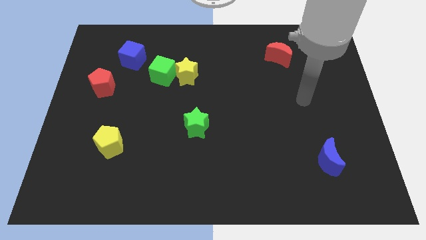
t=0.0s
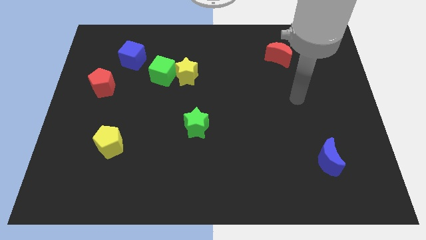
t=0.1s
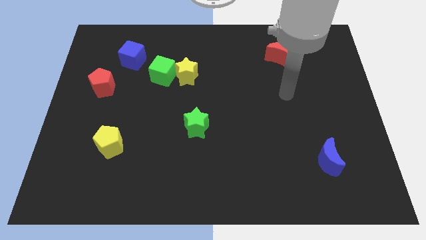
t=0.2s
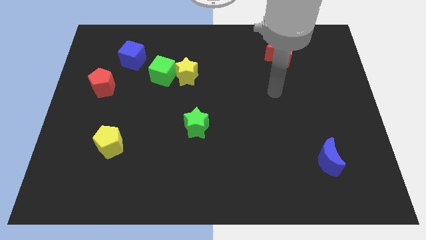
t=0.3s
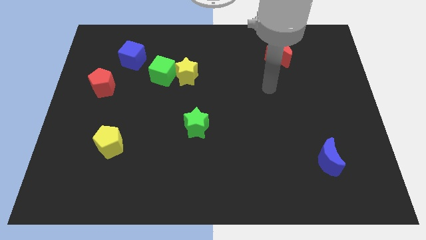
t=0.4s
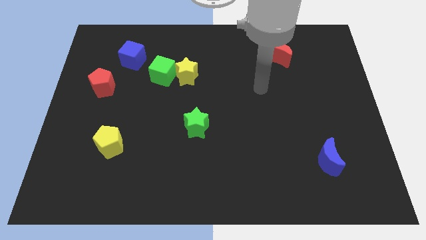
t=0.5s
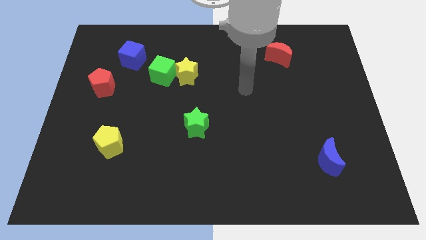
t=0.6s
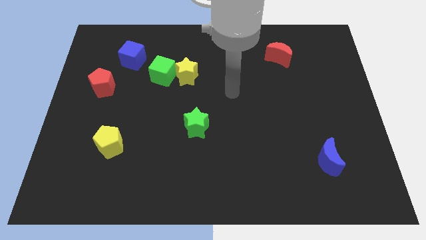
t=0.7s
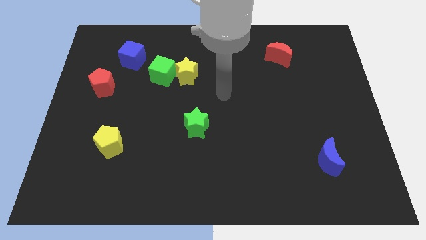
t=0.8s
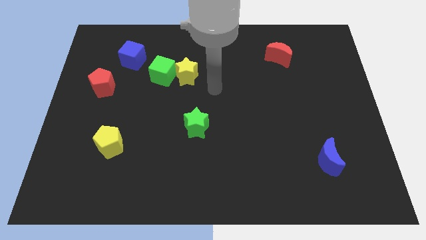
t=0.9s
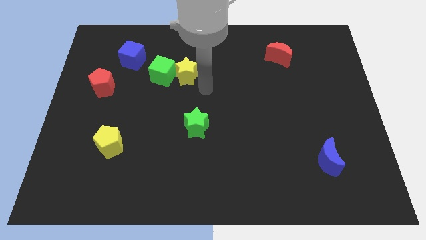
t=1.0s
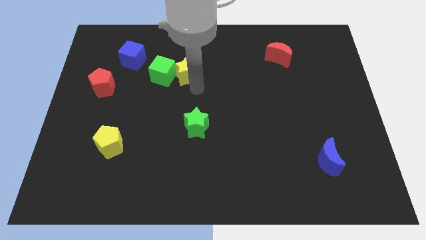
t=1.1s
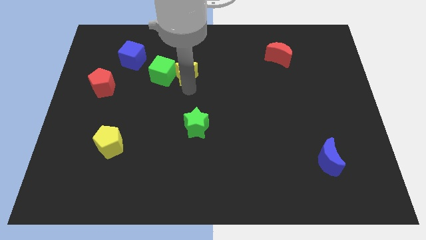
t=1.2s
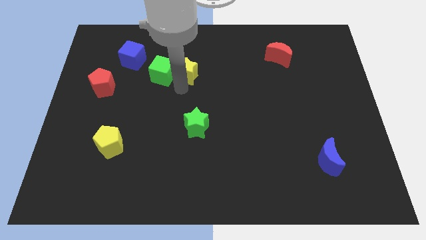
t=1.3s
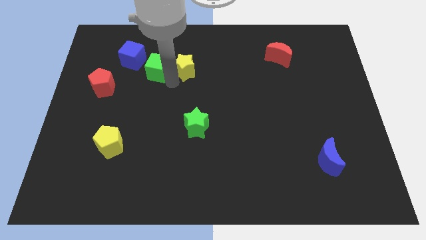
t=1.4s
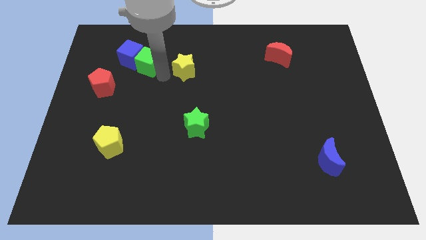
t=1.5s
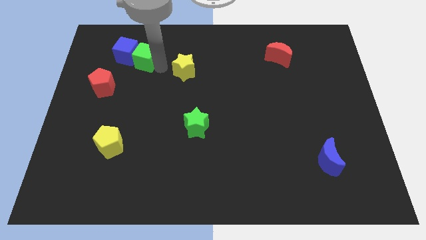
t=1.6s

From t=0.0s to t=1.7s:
separate the yellow star from the green cube

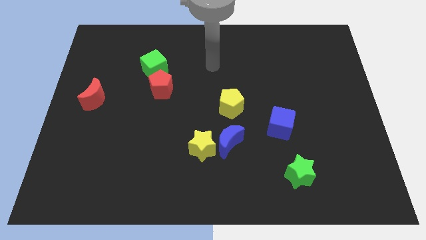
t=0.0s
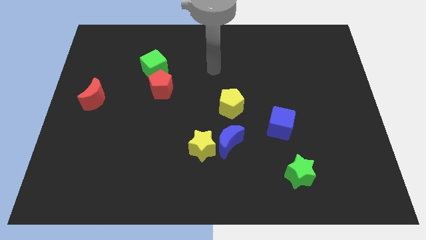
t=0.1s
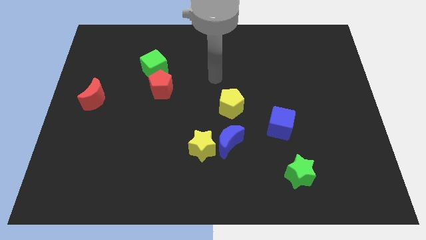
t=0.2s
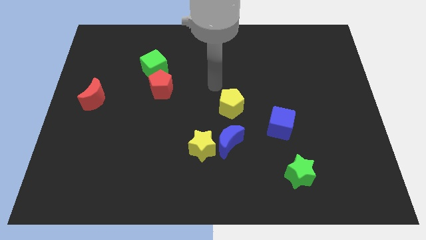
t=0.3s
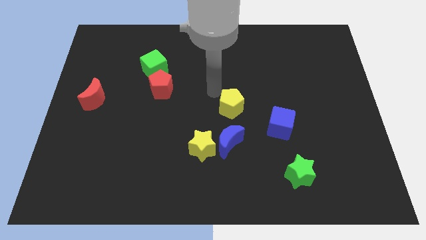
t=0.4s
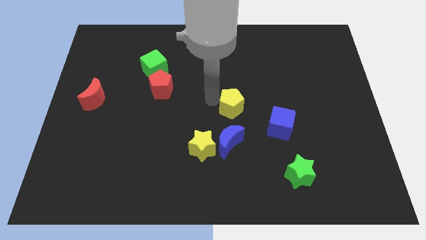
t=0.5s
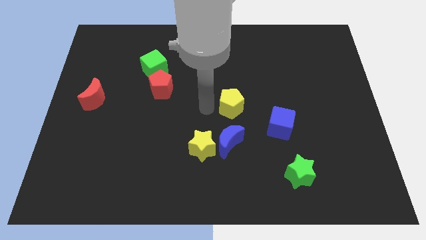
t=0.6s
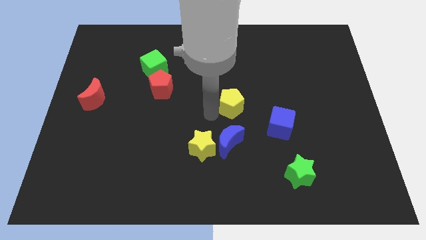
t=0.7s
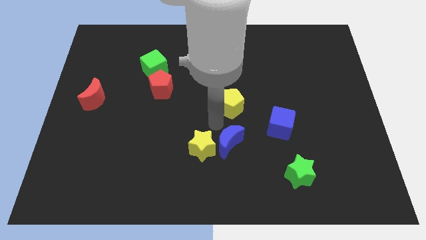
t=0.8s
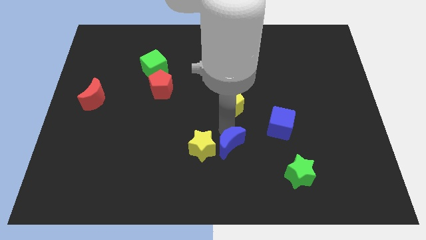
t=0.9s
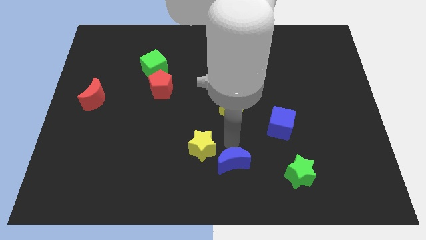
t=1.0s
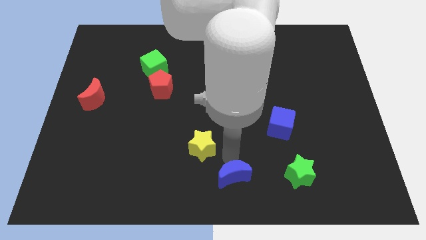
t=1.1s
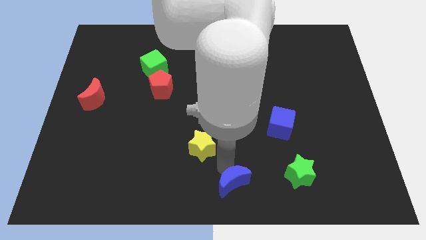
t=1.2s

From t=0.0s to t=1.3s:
move the yellow star away from the blue moon

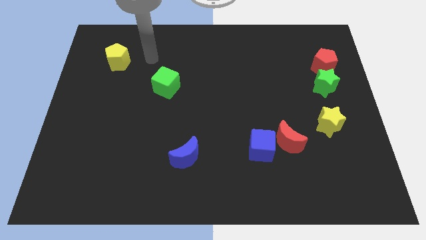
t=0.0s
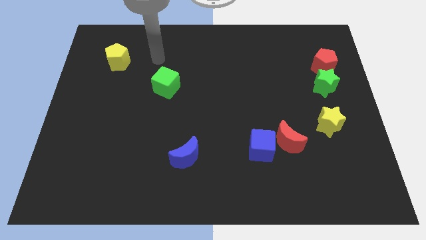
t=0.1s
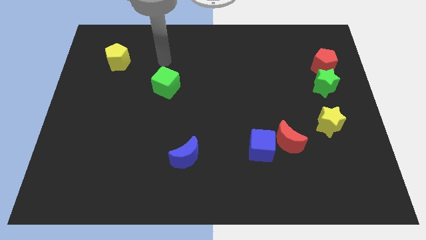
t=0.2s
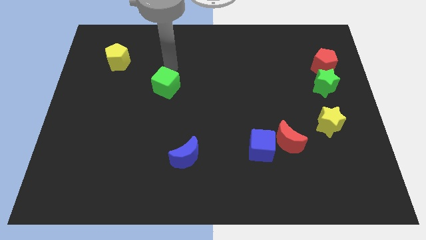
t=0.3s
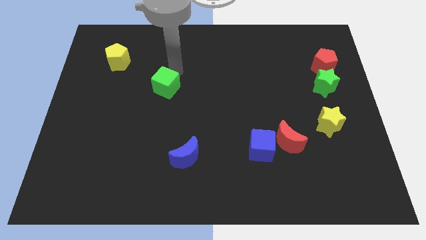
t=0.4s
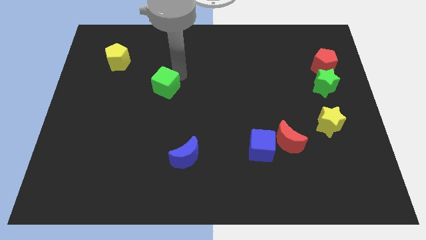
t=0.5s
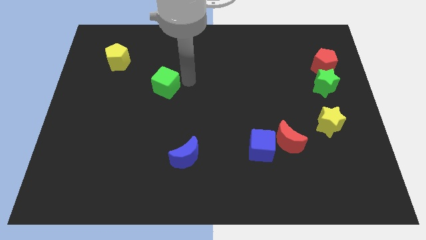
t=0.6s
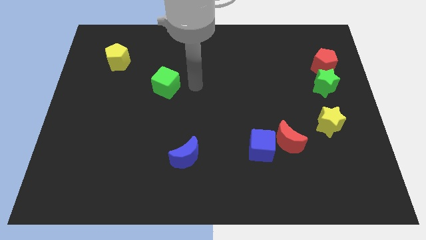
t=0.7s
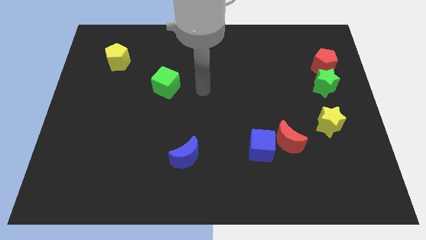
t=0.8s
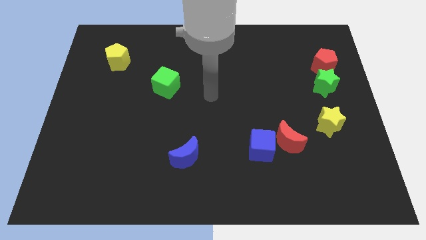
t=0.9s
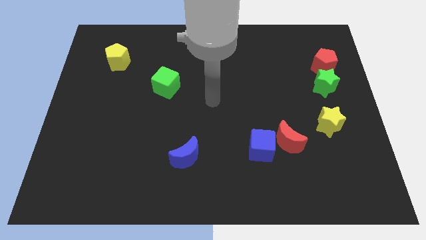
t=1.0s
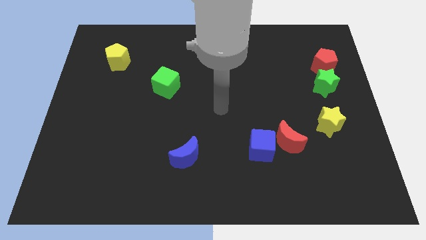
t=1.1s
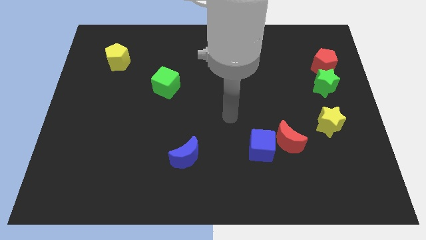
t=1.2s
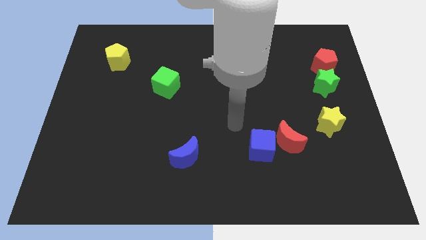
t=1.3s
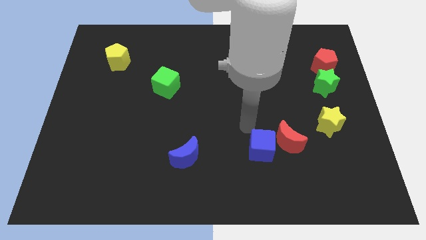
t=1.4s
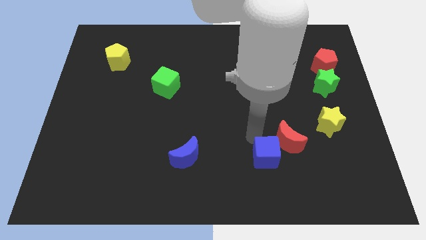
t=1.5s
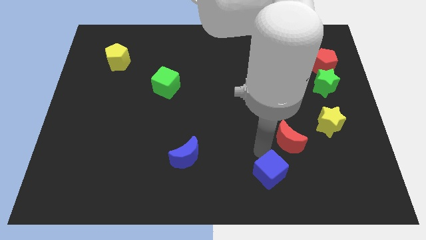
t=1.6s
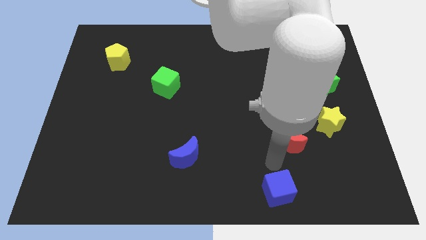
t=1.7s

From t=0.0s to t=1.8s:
move the red moon away from the blue cube

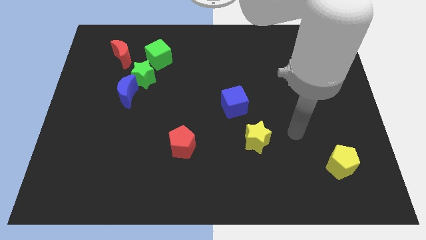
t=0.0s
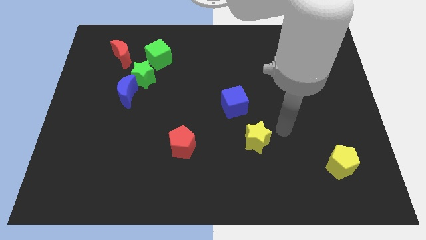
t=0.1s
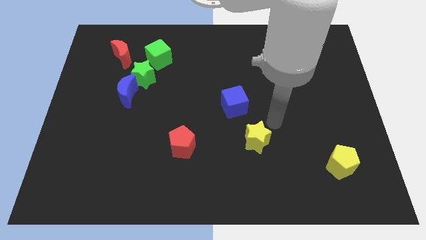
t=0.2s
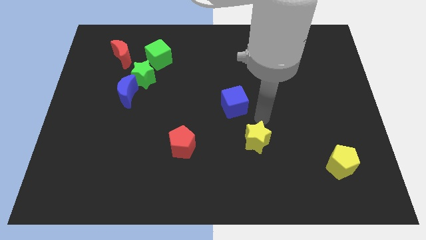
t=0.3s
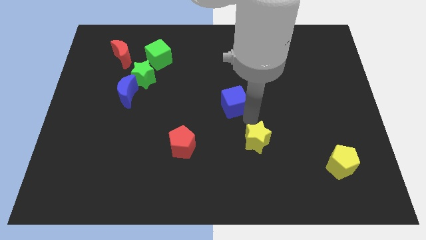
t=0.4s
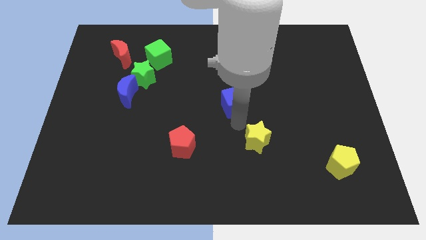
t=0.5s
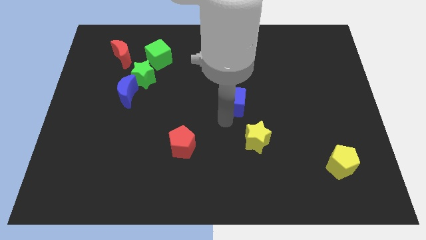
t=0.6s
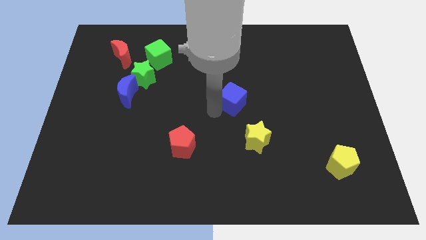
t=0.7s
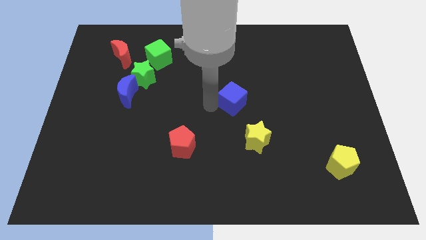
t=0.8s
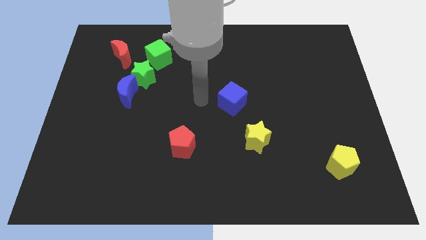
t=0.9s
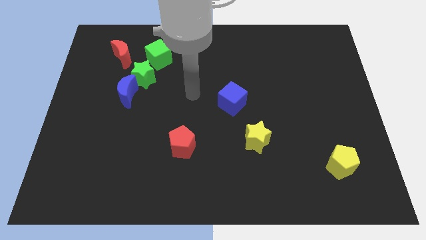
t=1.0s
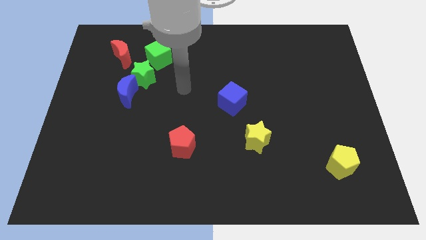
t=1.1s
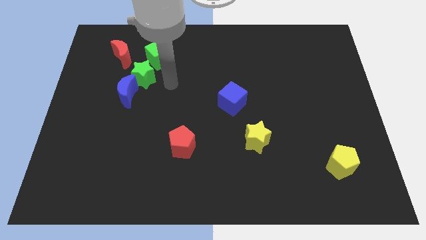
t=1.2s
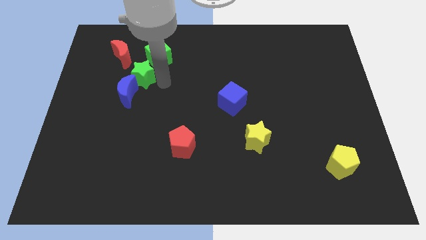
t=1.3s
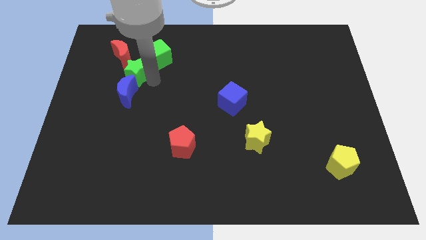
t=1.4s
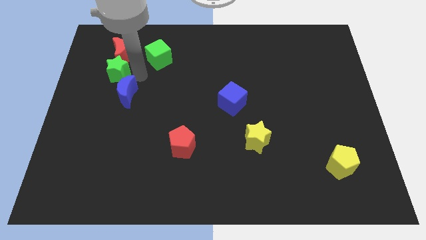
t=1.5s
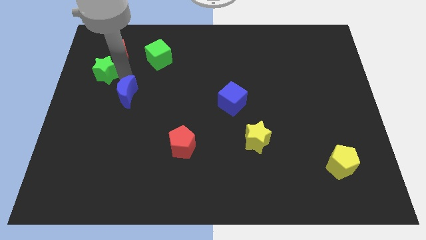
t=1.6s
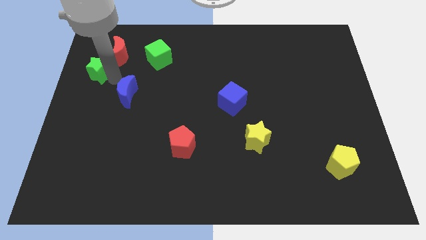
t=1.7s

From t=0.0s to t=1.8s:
separate the blue moon from the green star

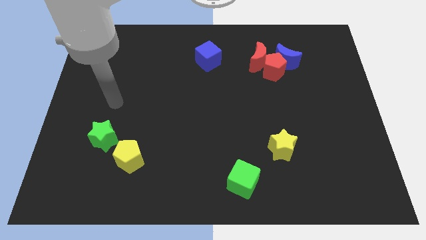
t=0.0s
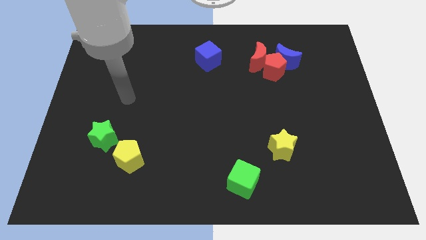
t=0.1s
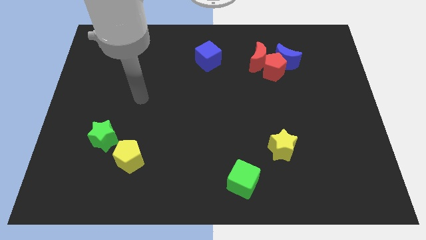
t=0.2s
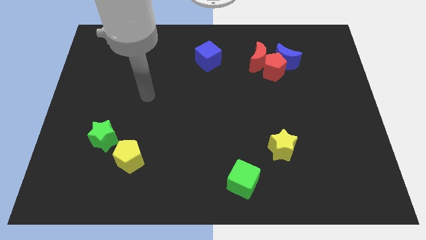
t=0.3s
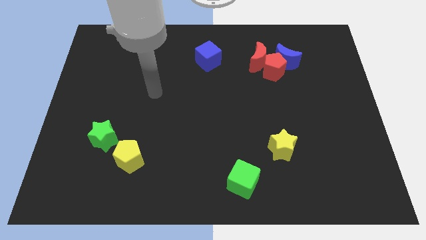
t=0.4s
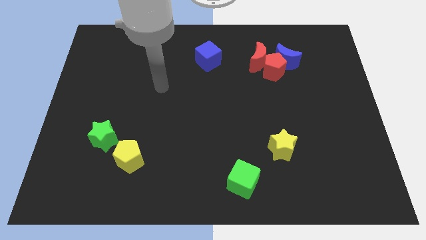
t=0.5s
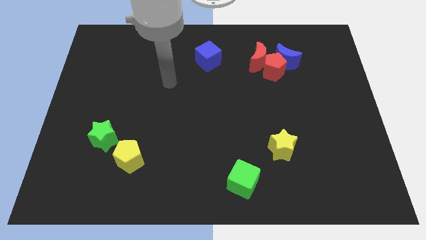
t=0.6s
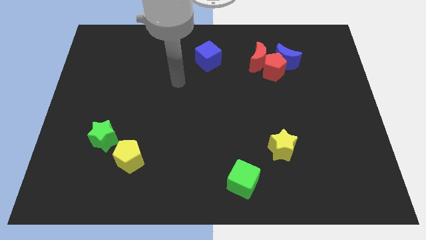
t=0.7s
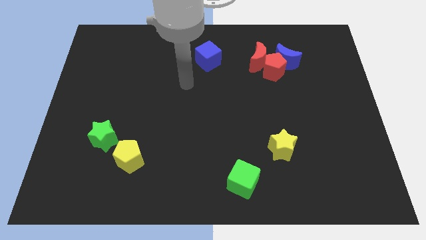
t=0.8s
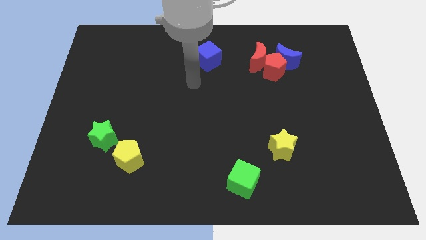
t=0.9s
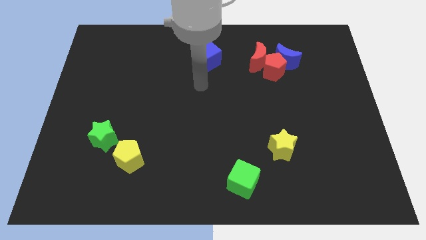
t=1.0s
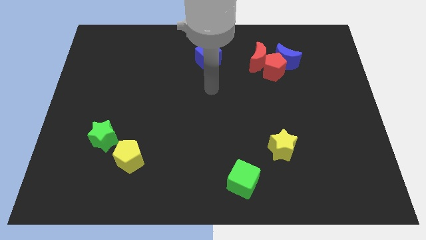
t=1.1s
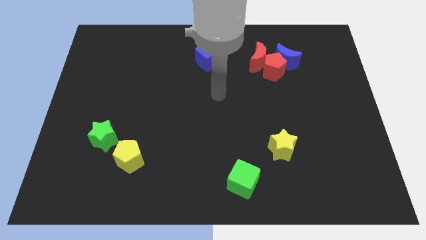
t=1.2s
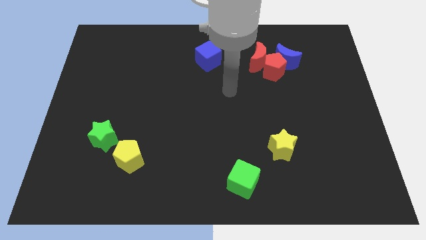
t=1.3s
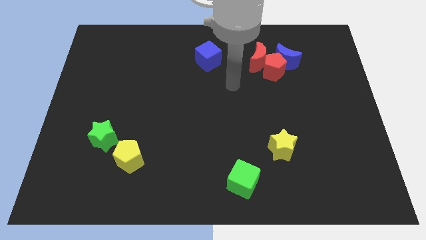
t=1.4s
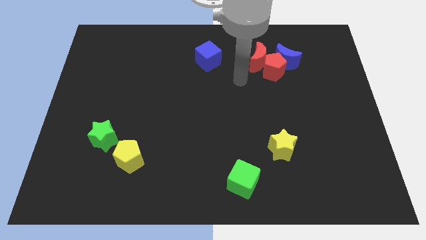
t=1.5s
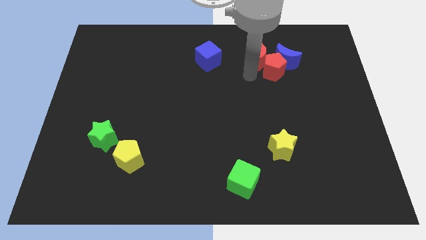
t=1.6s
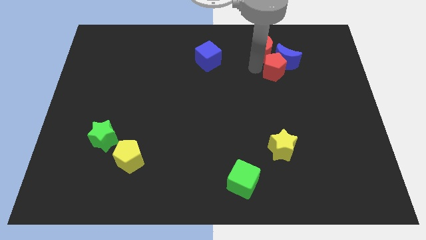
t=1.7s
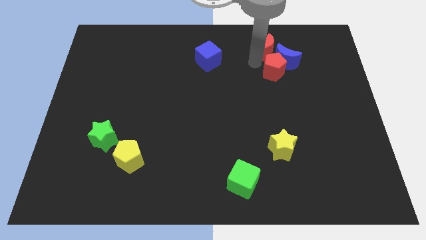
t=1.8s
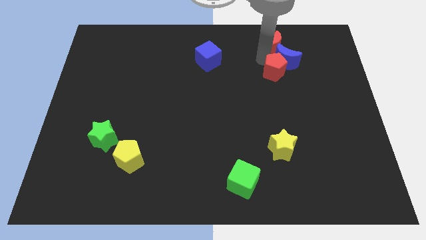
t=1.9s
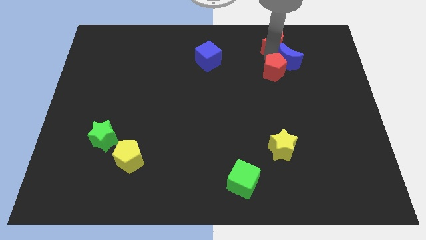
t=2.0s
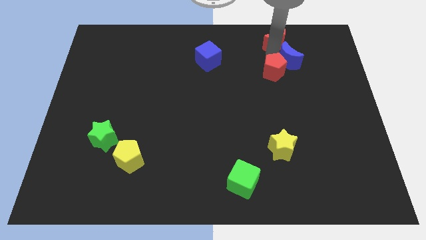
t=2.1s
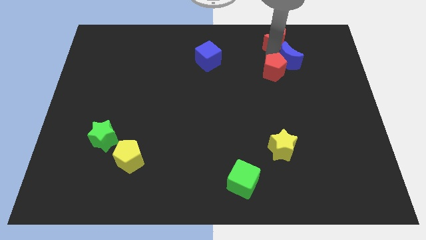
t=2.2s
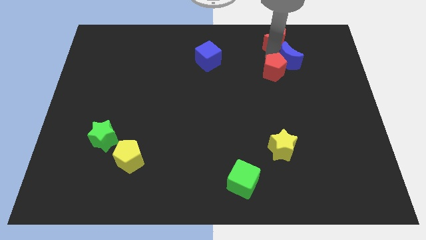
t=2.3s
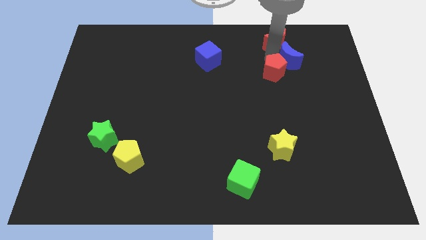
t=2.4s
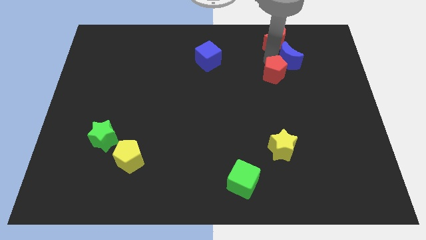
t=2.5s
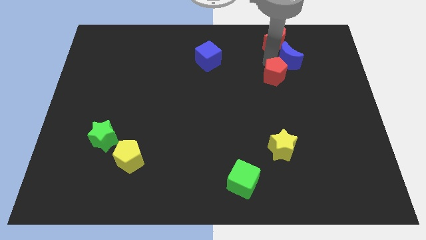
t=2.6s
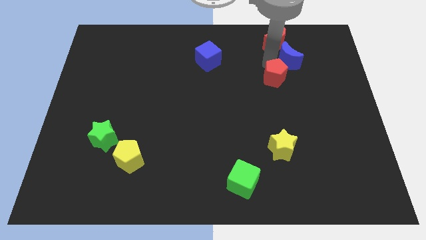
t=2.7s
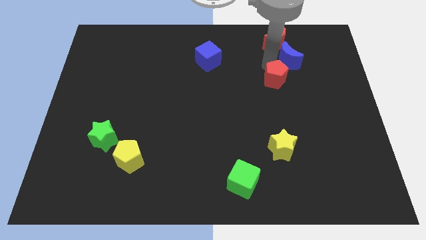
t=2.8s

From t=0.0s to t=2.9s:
pull the red pentagon apart from the blue moon and red moon
